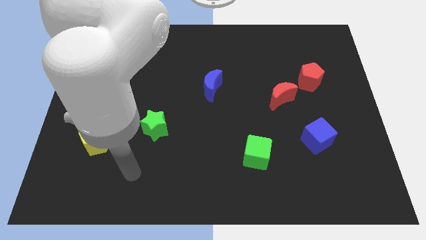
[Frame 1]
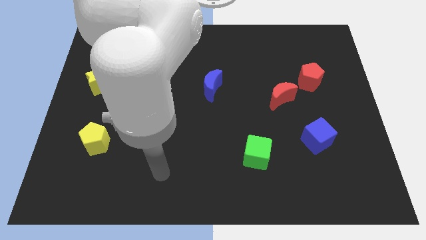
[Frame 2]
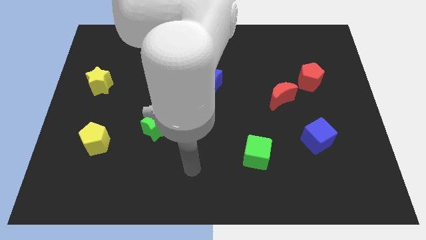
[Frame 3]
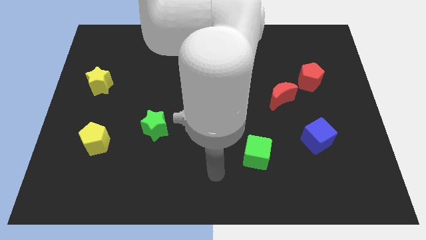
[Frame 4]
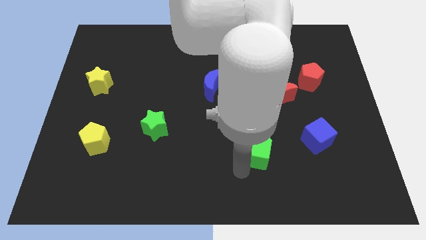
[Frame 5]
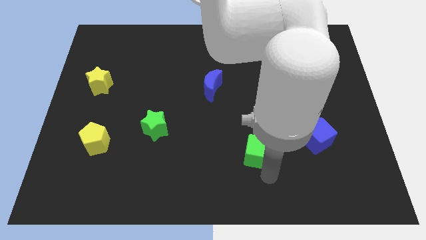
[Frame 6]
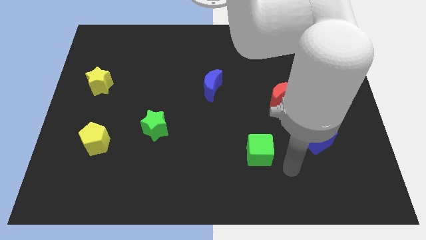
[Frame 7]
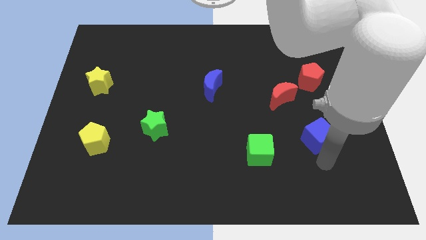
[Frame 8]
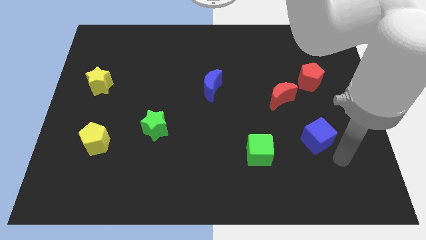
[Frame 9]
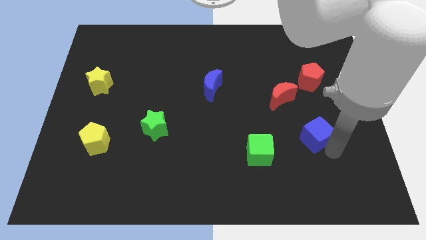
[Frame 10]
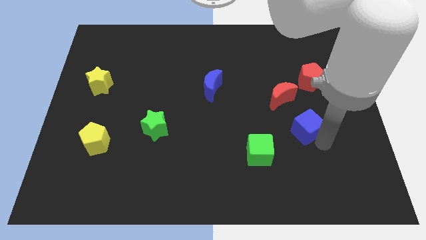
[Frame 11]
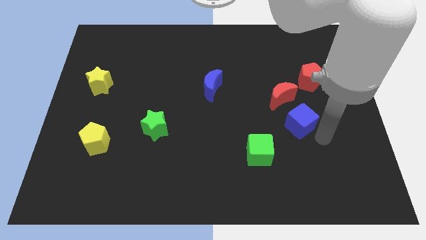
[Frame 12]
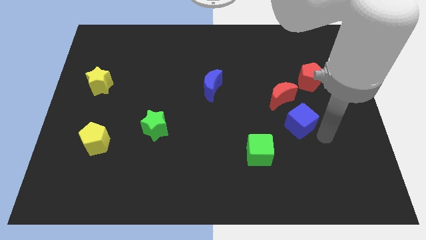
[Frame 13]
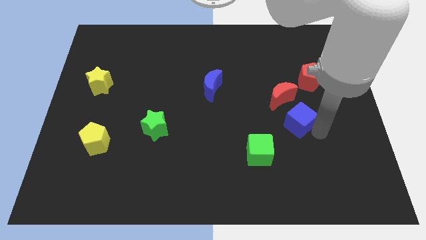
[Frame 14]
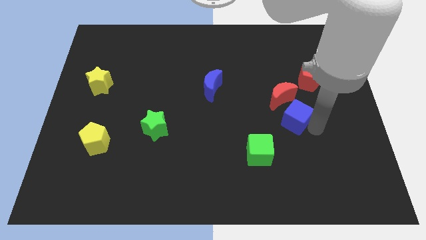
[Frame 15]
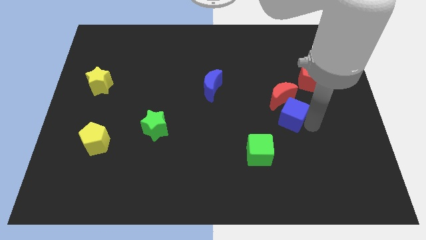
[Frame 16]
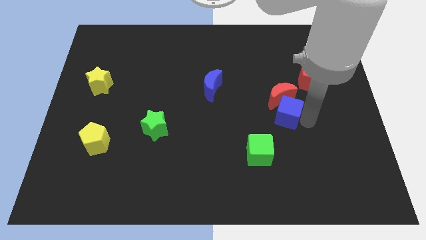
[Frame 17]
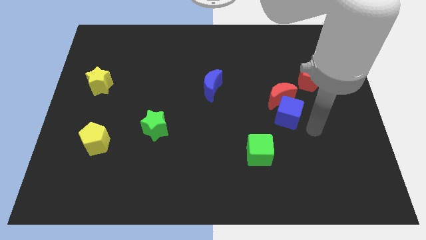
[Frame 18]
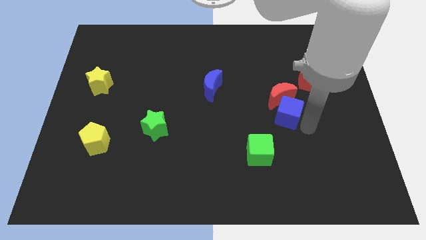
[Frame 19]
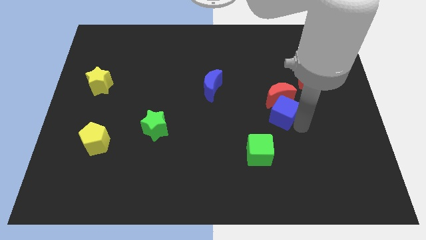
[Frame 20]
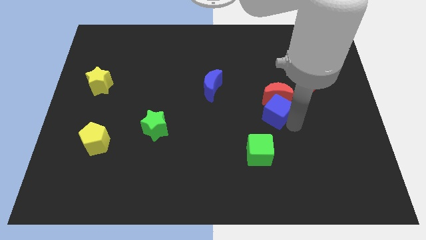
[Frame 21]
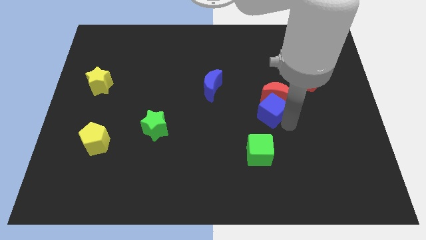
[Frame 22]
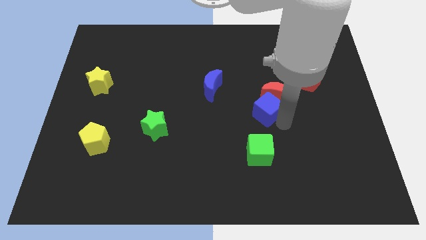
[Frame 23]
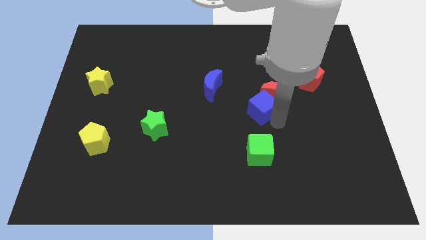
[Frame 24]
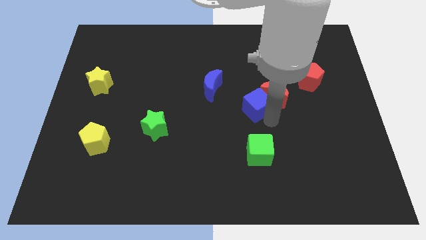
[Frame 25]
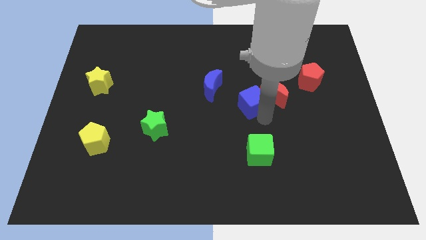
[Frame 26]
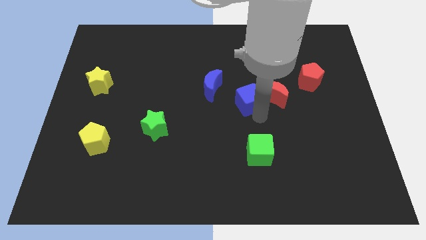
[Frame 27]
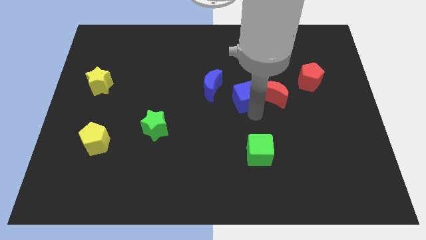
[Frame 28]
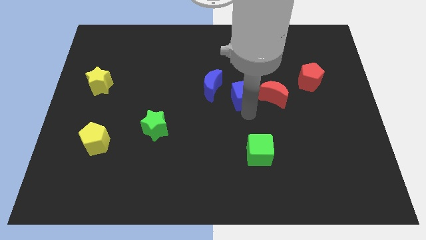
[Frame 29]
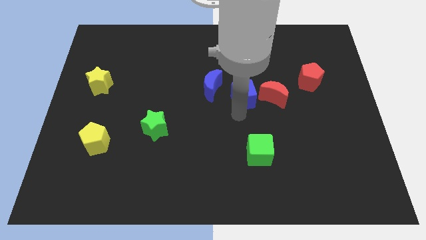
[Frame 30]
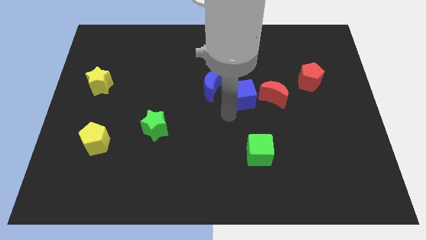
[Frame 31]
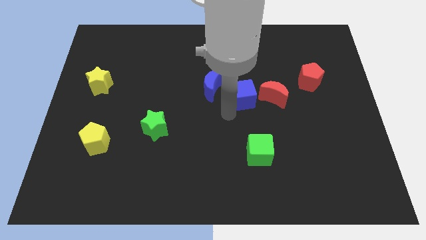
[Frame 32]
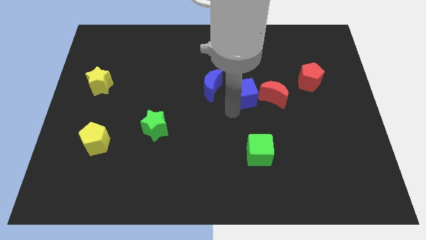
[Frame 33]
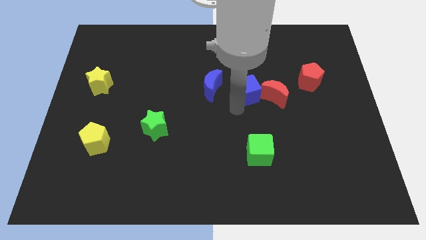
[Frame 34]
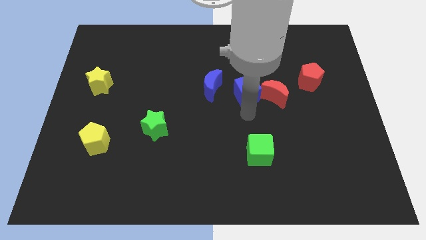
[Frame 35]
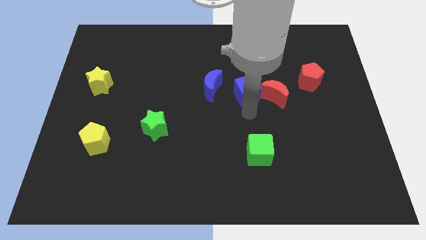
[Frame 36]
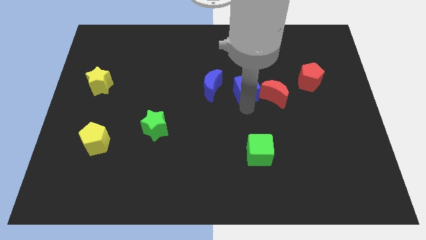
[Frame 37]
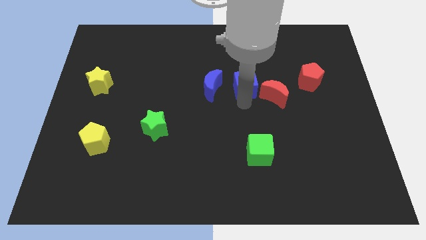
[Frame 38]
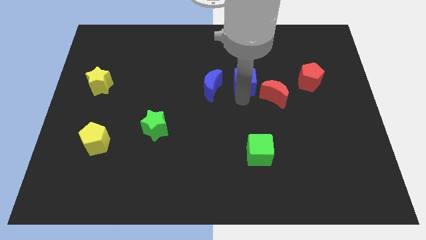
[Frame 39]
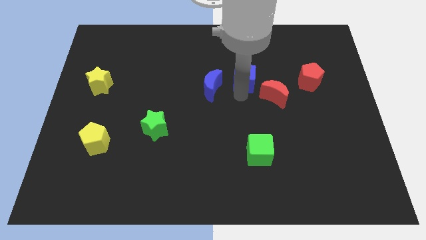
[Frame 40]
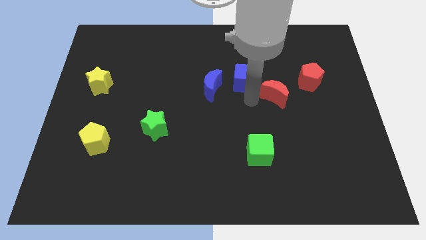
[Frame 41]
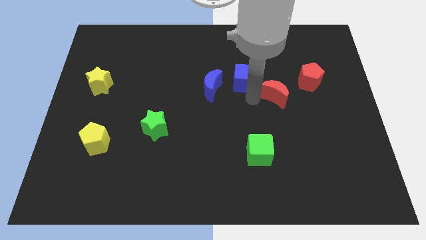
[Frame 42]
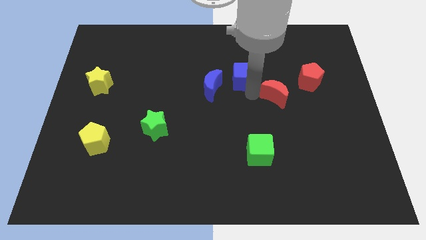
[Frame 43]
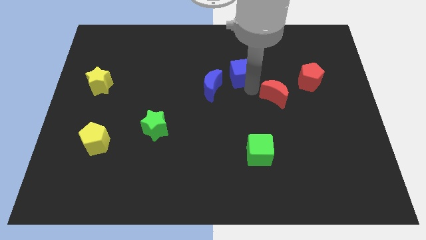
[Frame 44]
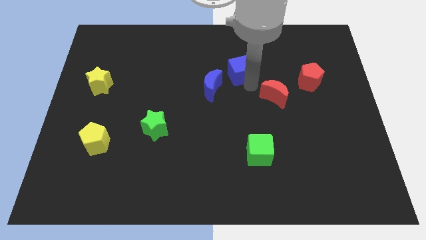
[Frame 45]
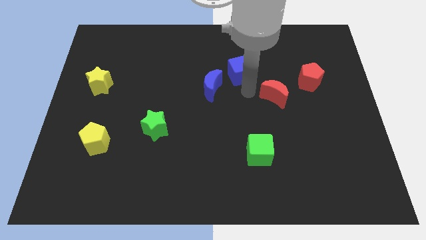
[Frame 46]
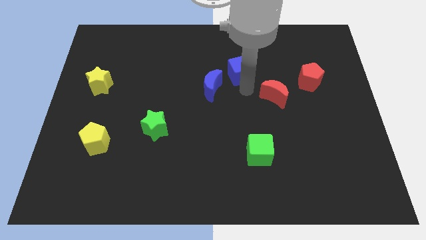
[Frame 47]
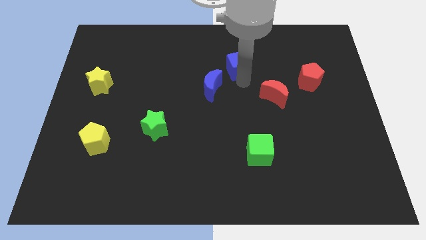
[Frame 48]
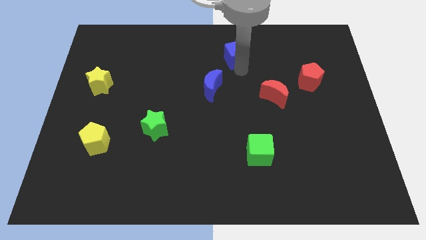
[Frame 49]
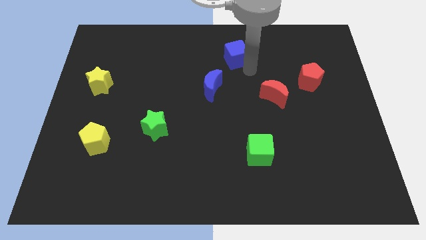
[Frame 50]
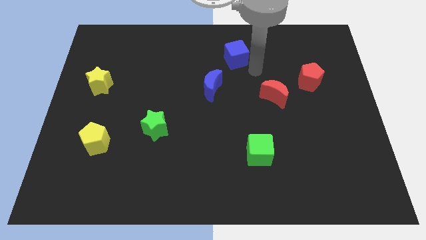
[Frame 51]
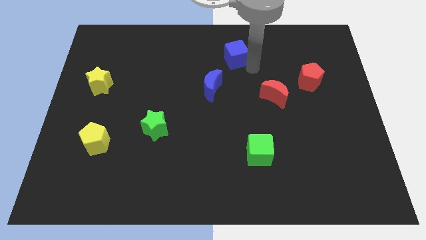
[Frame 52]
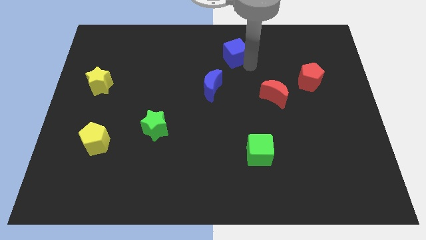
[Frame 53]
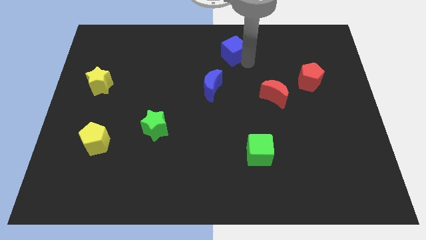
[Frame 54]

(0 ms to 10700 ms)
slide the blue cube to the top side

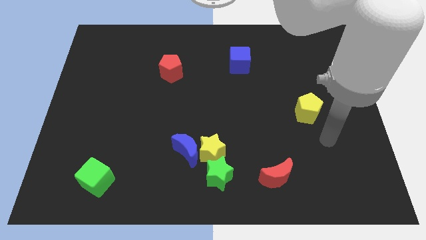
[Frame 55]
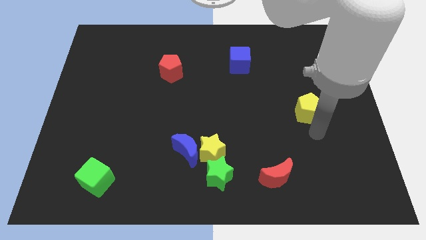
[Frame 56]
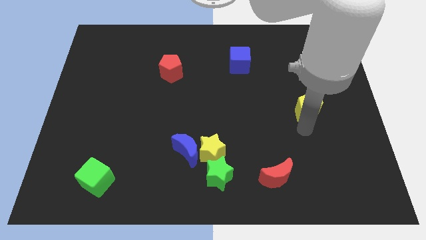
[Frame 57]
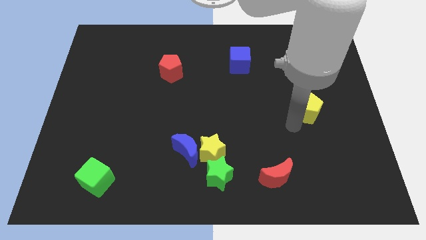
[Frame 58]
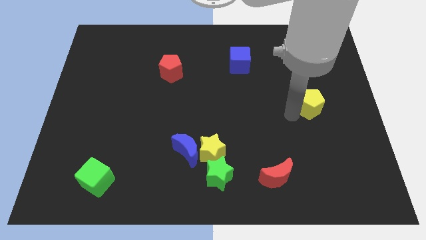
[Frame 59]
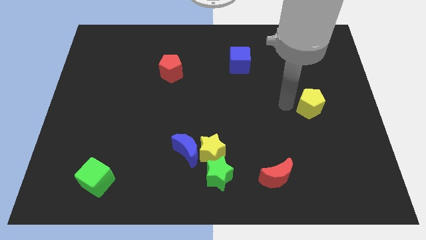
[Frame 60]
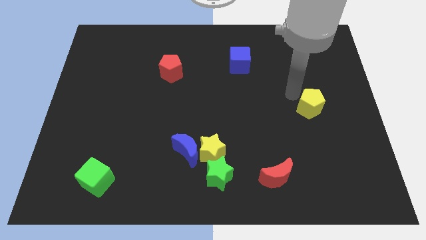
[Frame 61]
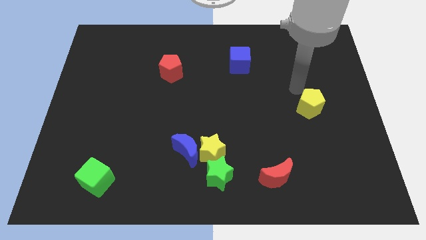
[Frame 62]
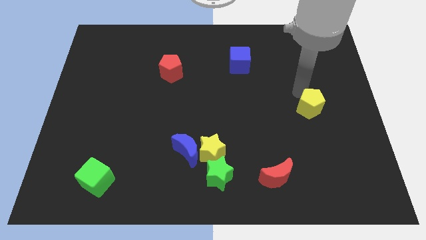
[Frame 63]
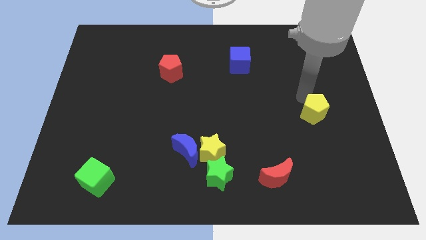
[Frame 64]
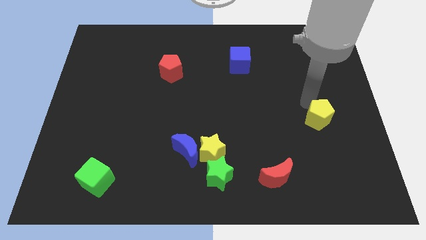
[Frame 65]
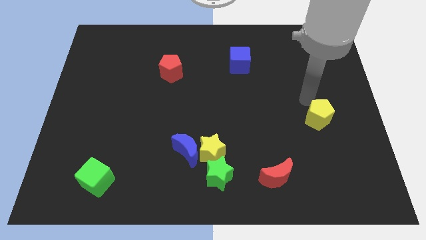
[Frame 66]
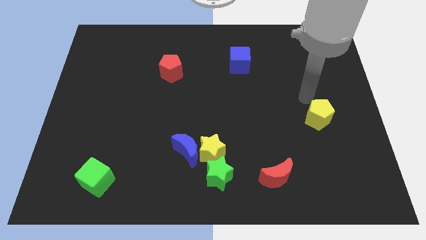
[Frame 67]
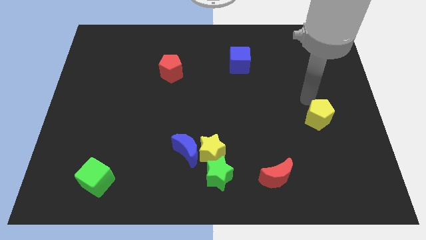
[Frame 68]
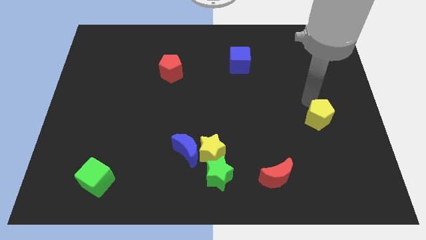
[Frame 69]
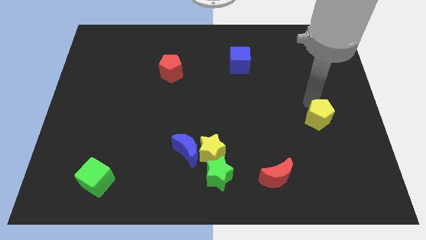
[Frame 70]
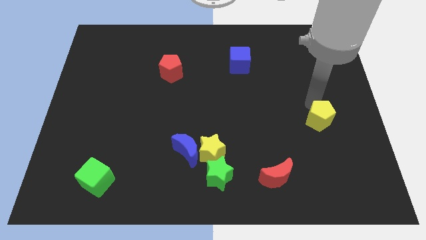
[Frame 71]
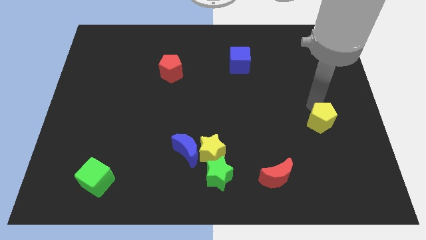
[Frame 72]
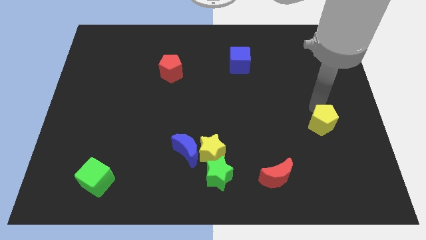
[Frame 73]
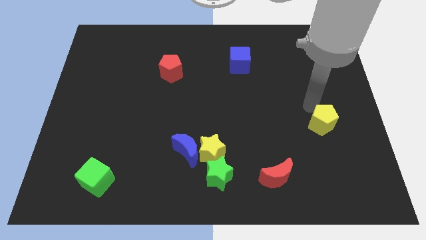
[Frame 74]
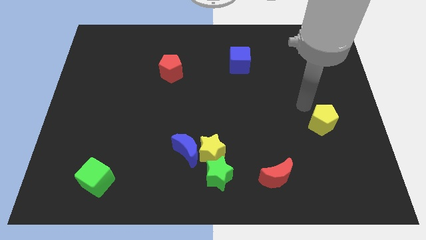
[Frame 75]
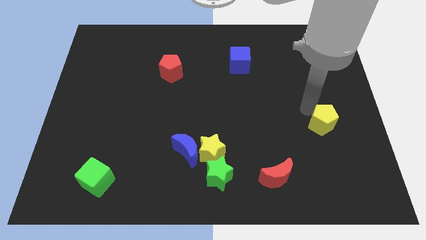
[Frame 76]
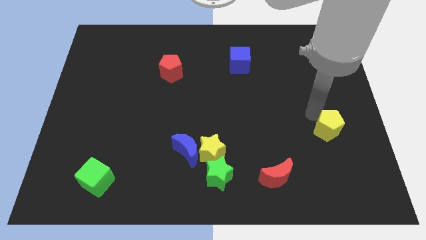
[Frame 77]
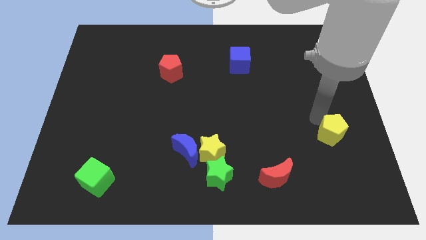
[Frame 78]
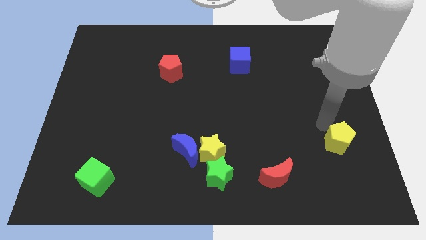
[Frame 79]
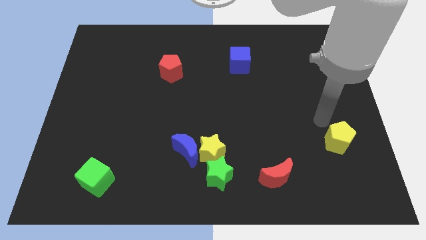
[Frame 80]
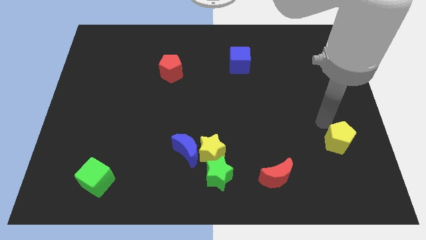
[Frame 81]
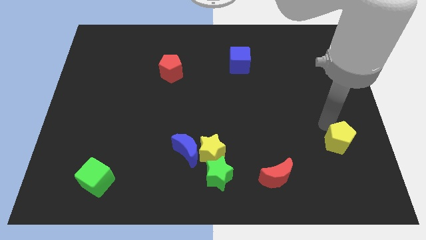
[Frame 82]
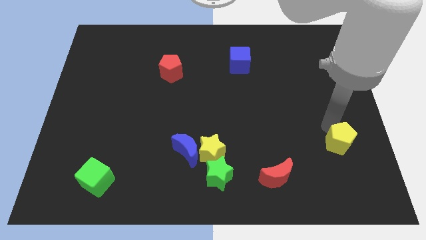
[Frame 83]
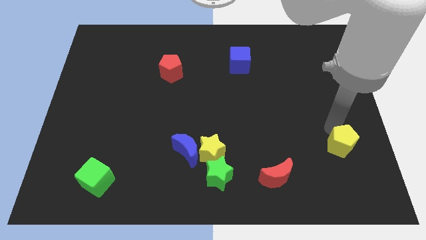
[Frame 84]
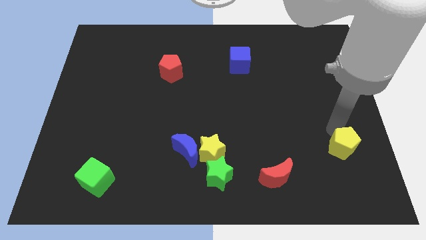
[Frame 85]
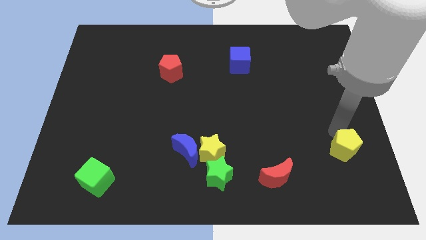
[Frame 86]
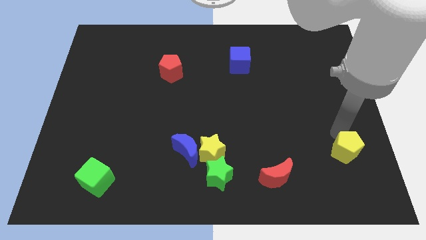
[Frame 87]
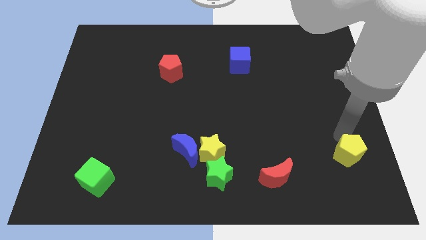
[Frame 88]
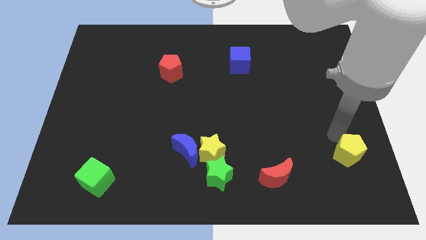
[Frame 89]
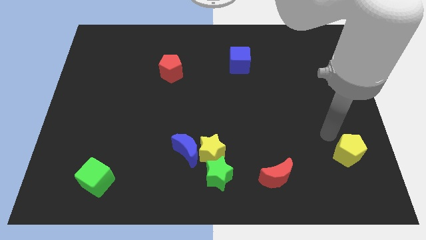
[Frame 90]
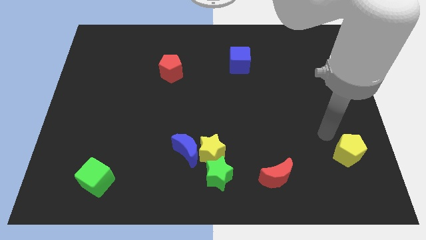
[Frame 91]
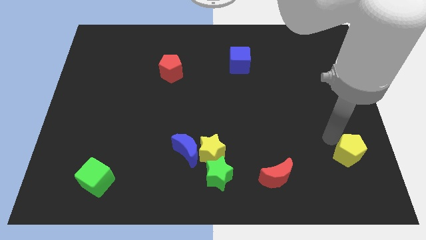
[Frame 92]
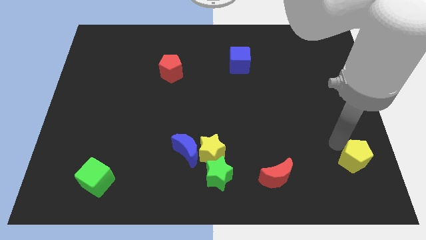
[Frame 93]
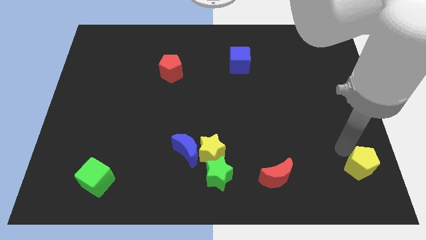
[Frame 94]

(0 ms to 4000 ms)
move the yellow pentagon to the bottom right
